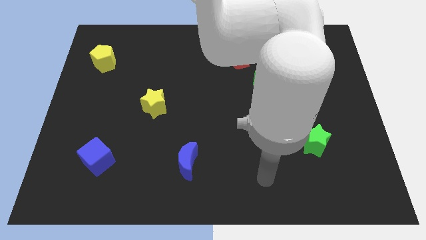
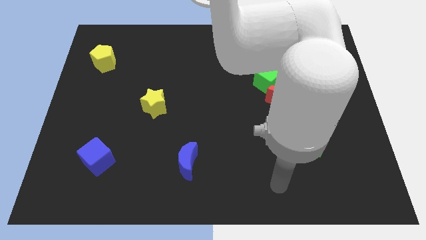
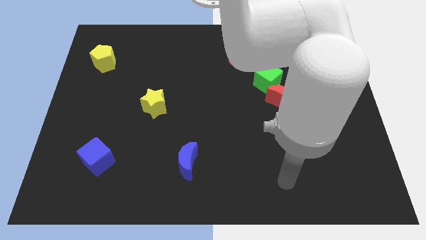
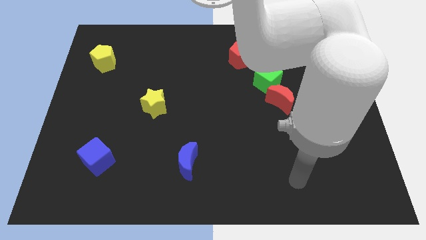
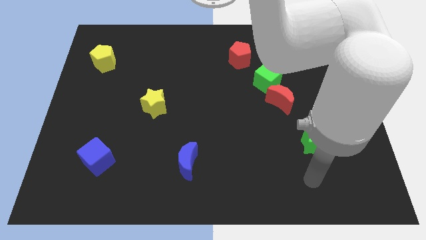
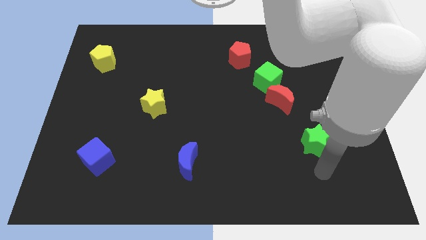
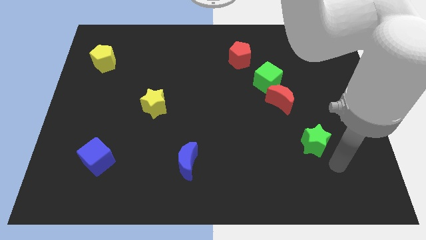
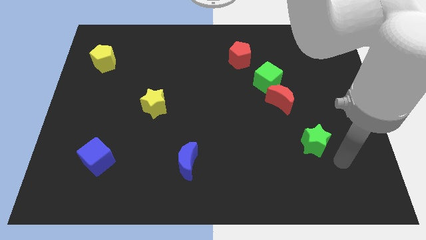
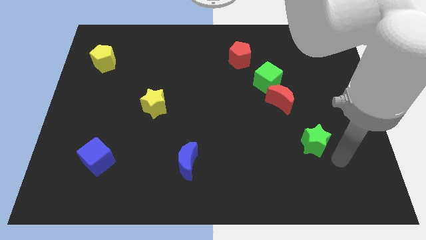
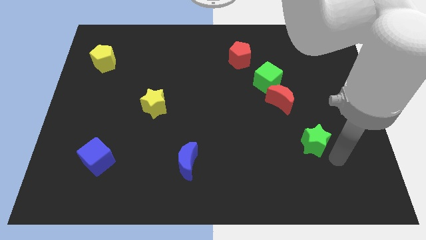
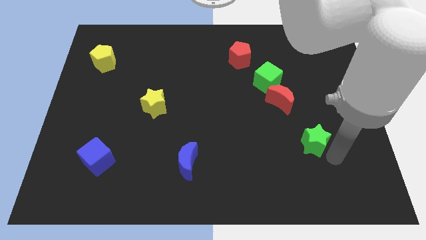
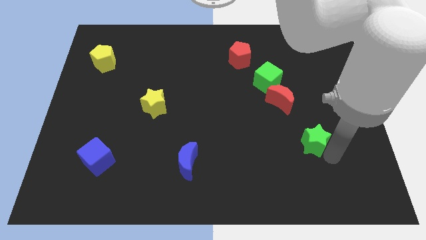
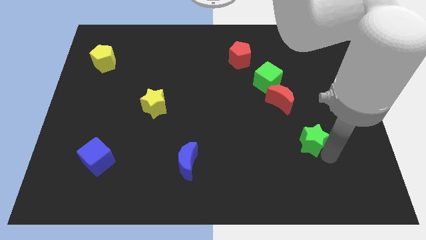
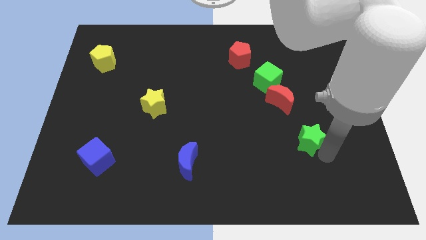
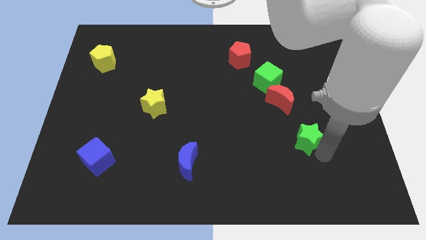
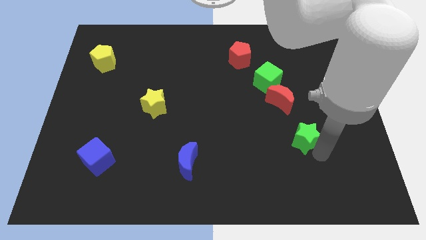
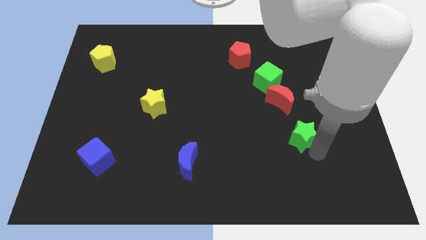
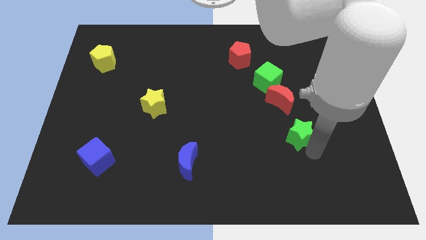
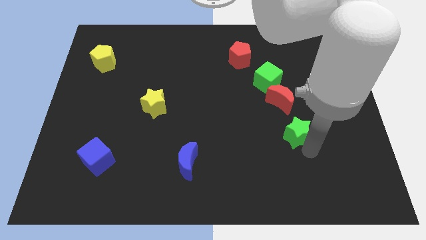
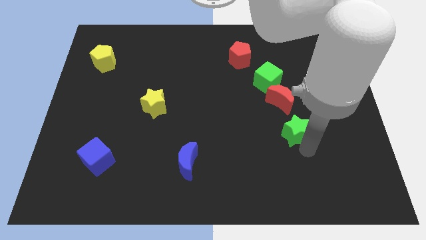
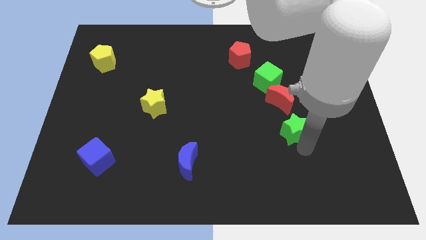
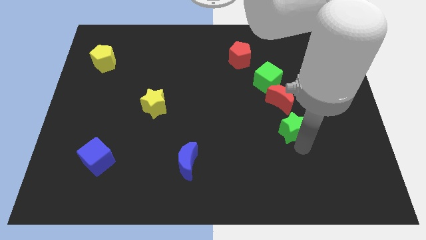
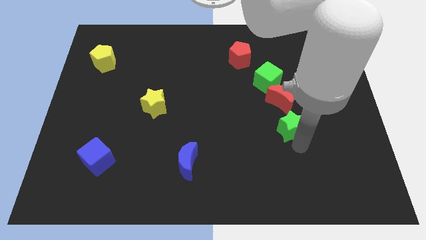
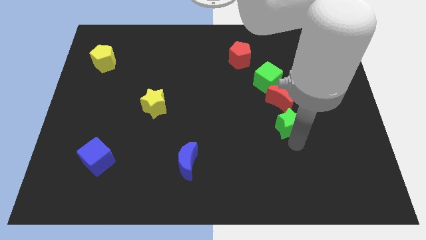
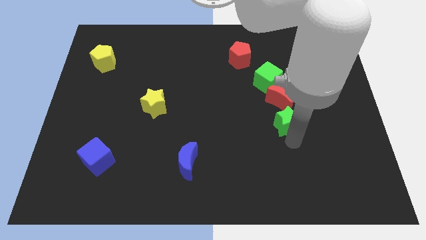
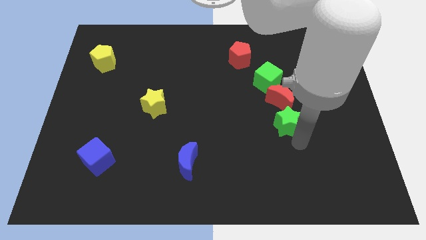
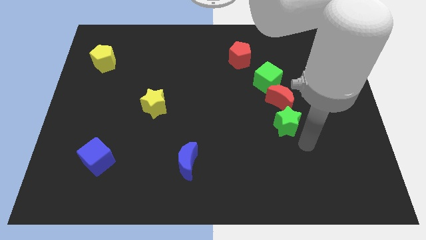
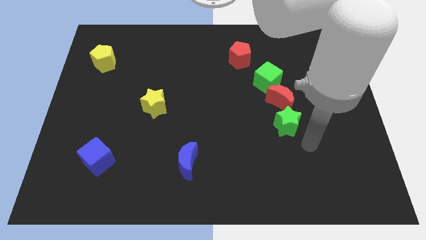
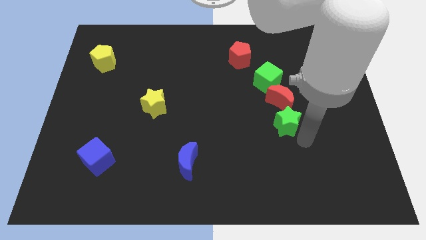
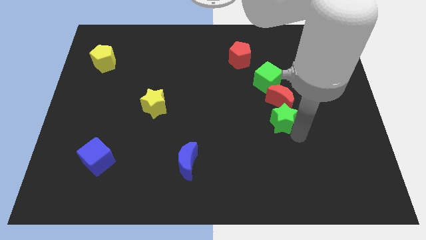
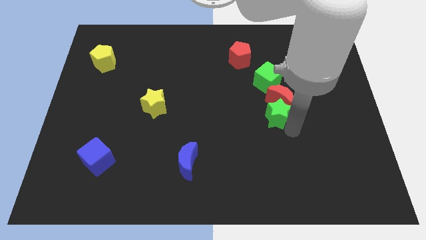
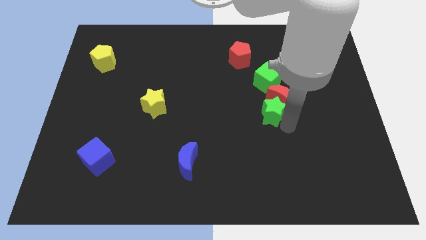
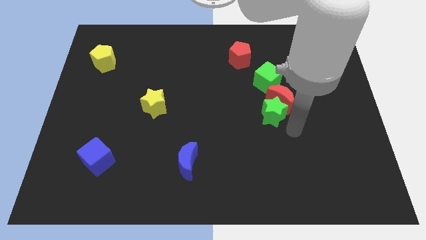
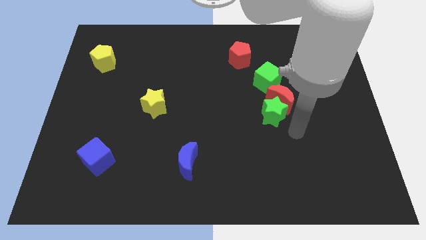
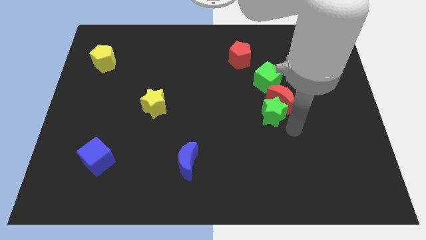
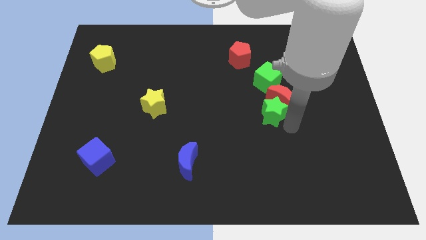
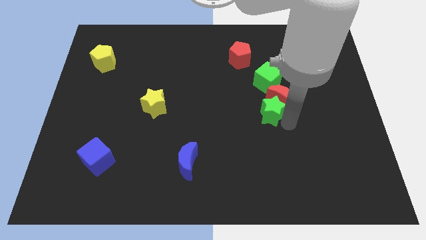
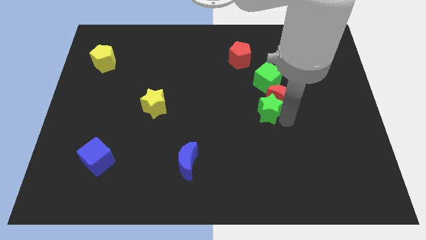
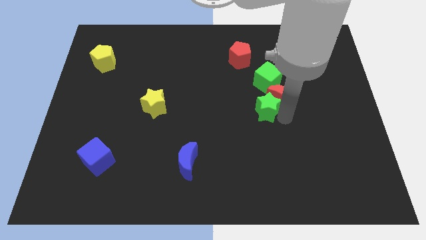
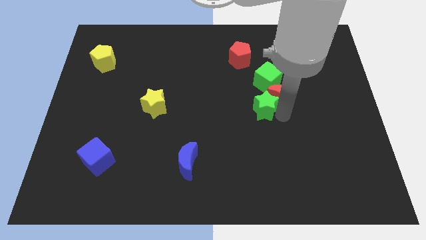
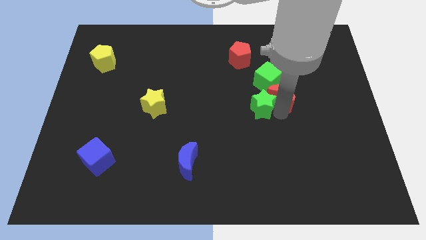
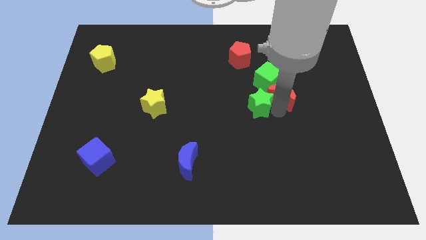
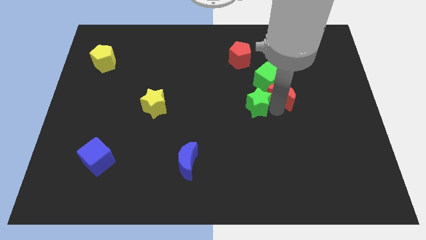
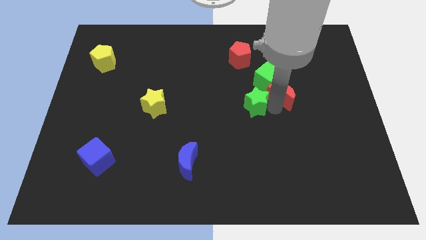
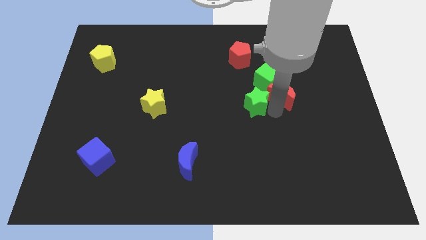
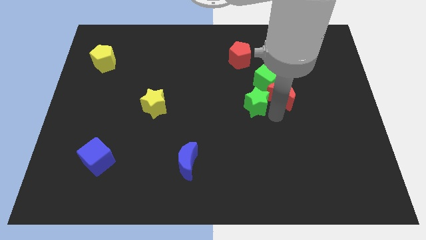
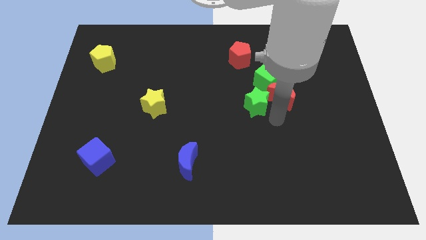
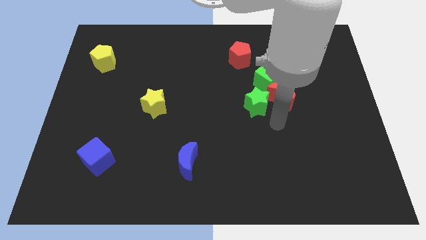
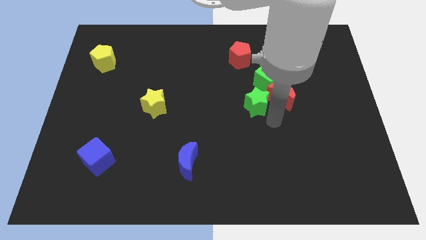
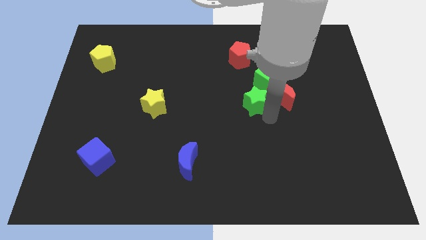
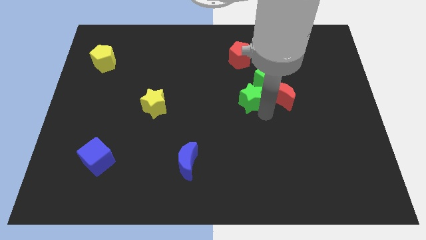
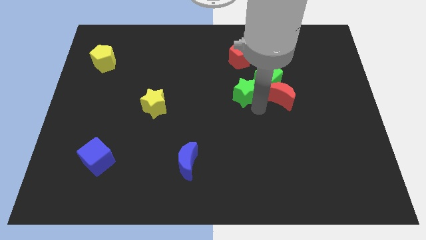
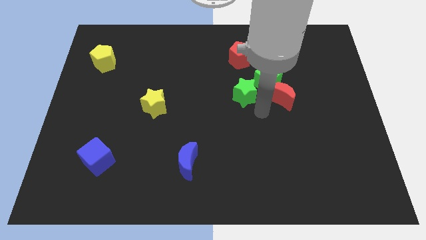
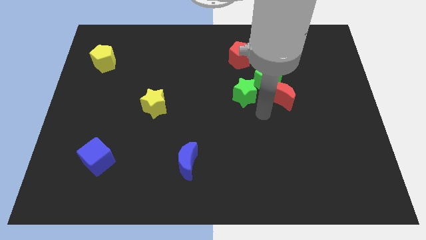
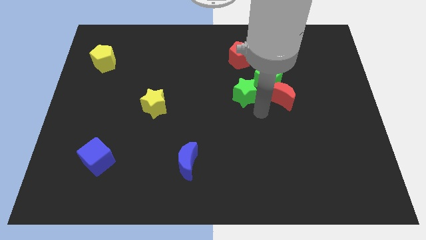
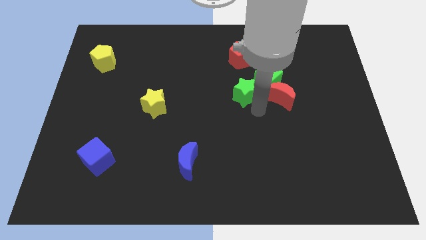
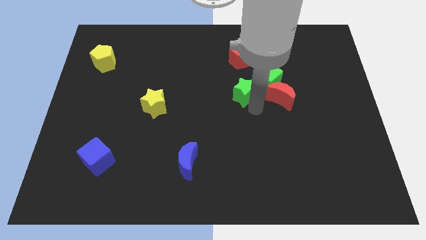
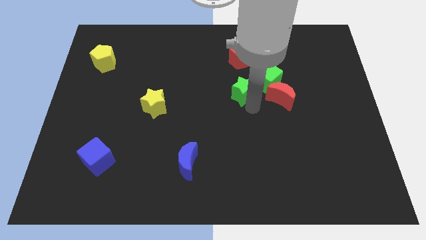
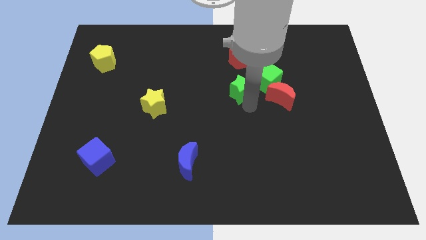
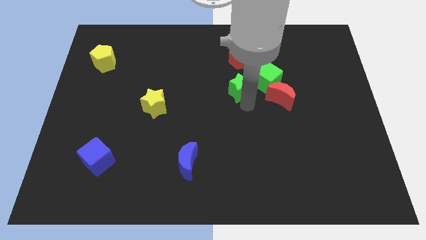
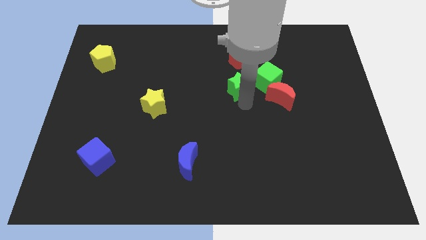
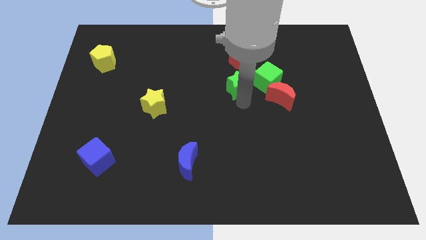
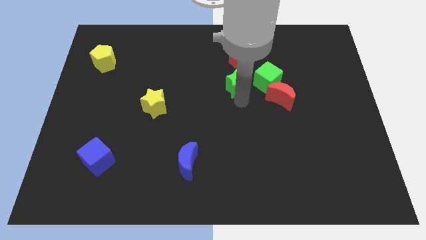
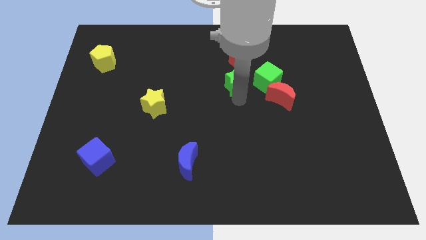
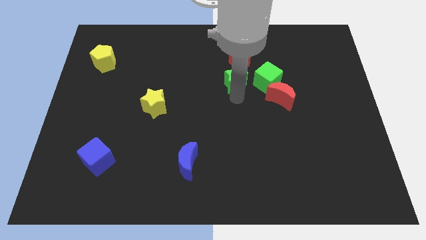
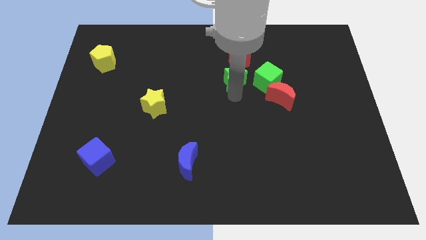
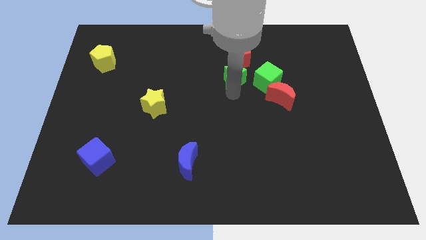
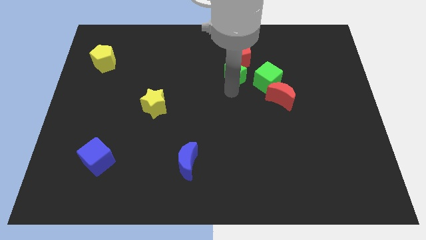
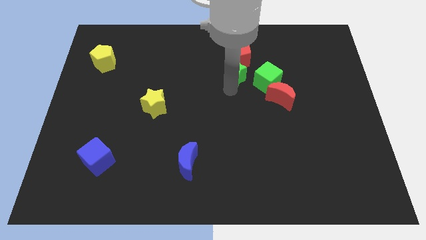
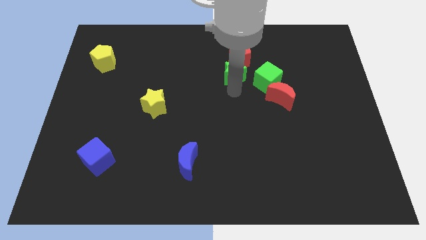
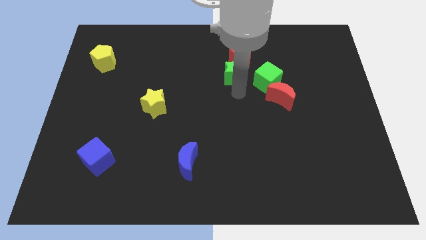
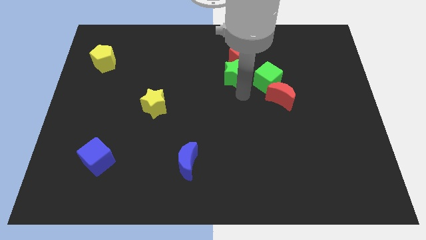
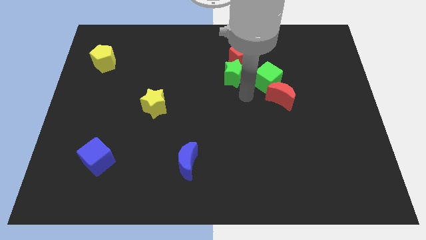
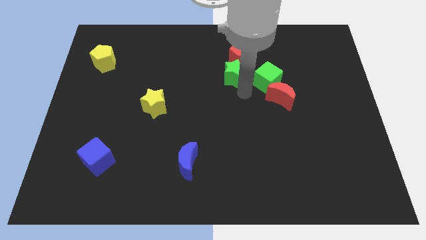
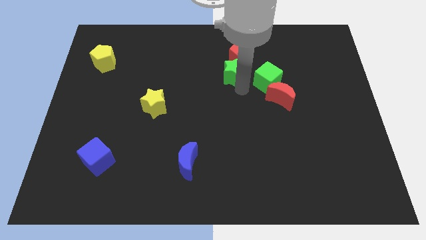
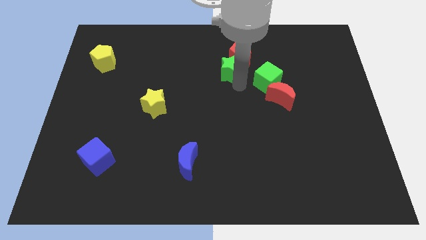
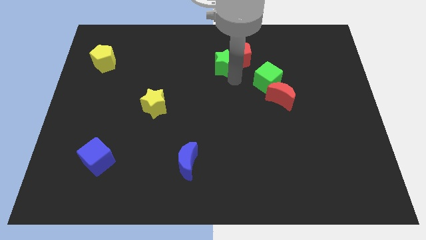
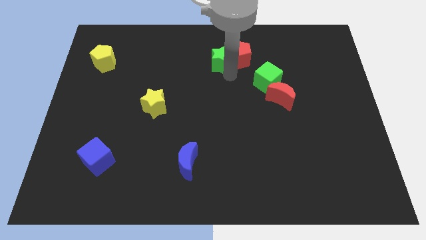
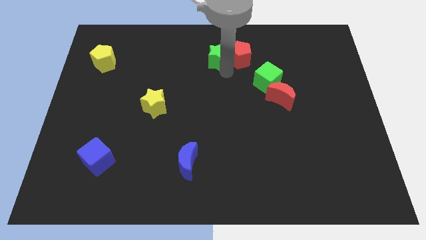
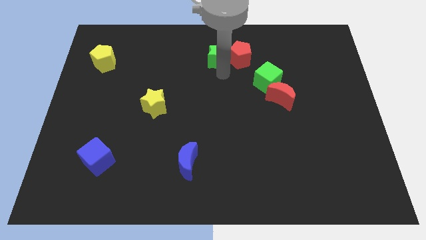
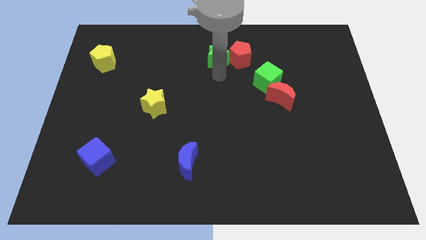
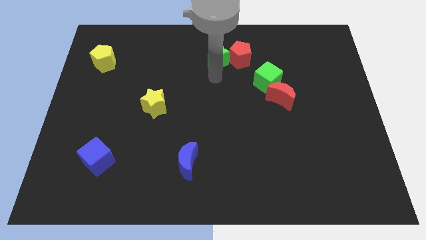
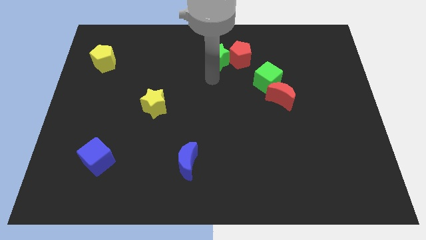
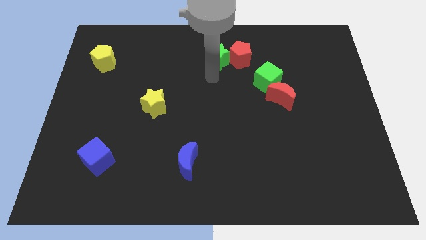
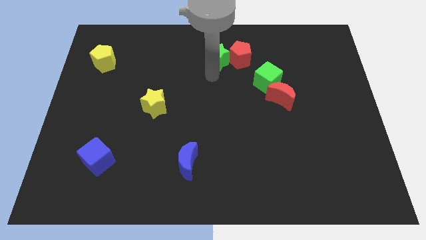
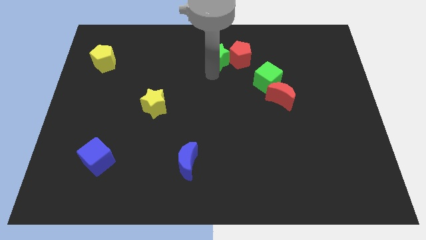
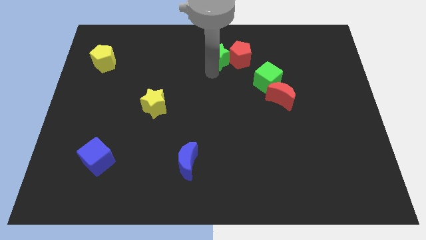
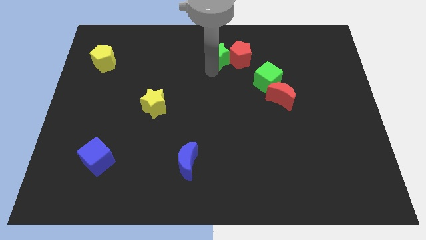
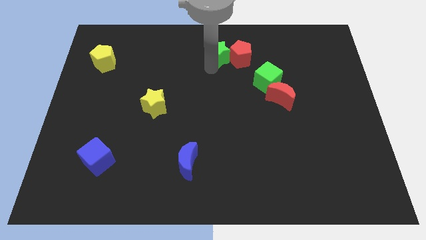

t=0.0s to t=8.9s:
slide the green star to the top
